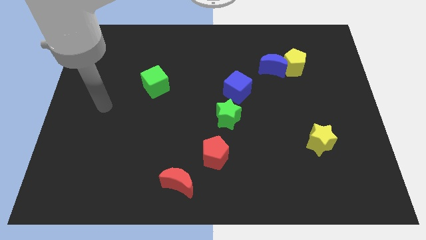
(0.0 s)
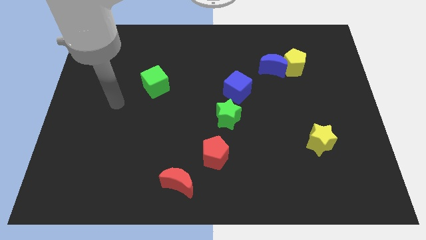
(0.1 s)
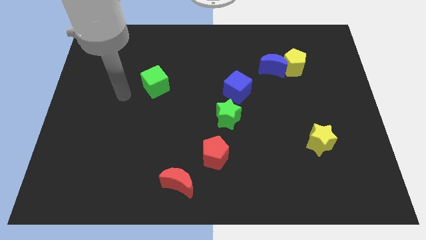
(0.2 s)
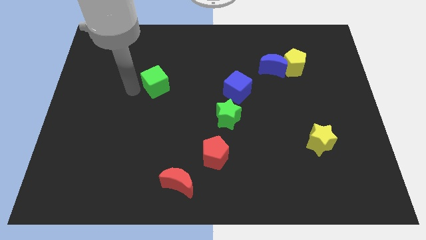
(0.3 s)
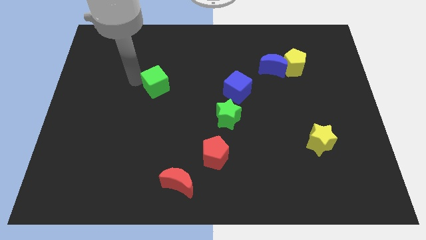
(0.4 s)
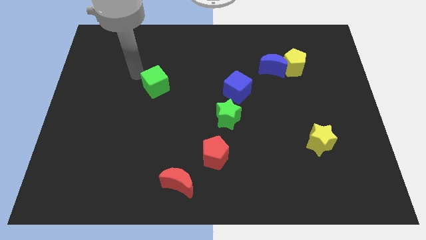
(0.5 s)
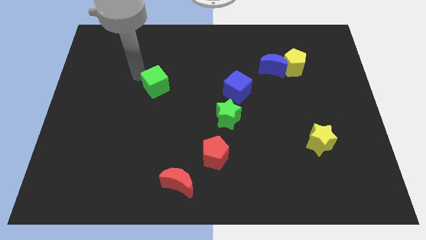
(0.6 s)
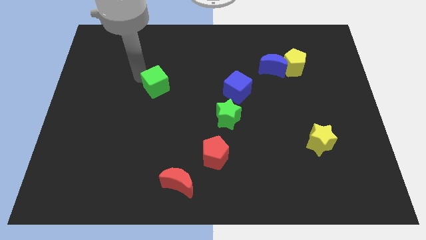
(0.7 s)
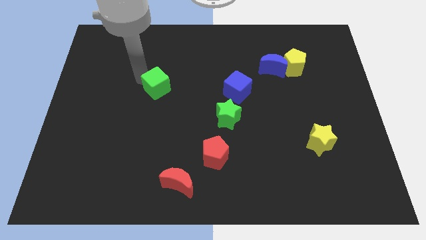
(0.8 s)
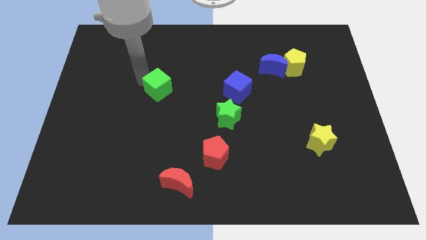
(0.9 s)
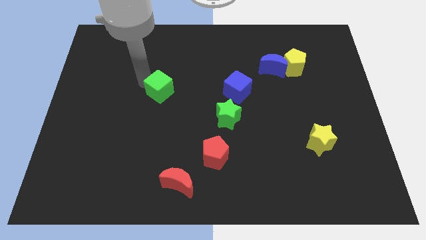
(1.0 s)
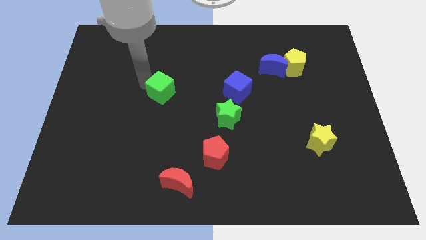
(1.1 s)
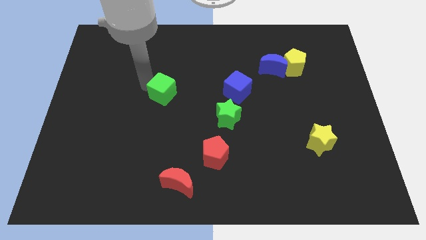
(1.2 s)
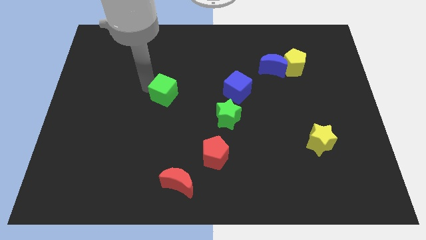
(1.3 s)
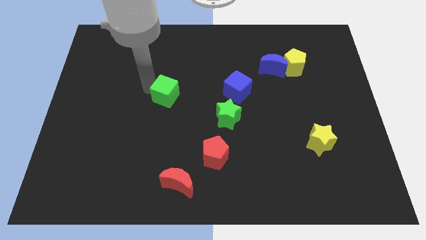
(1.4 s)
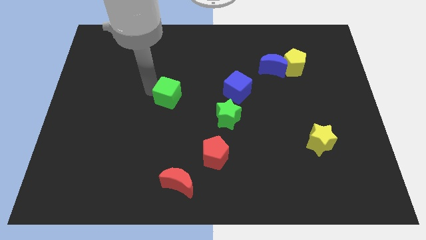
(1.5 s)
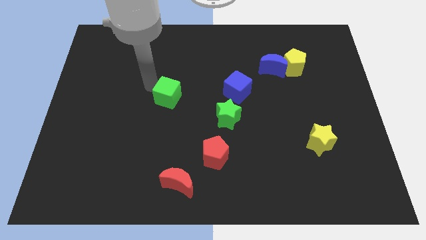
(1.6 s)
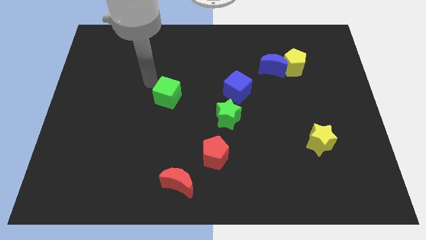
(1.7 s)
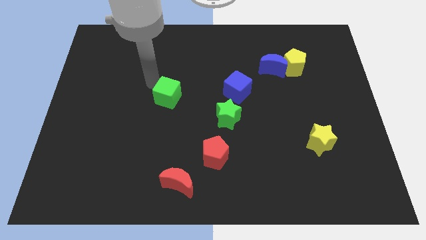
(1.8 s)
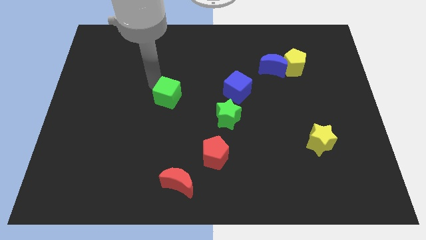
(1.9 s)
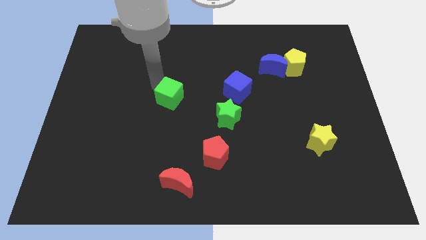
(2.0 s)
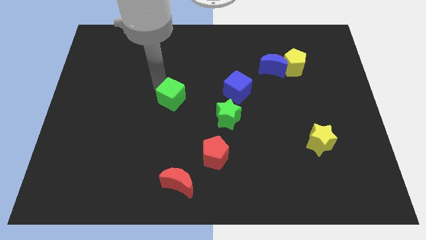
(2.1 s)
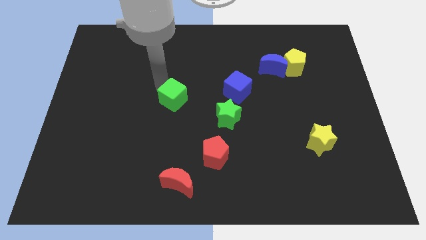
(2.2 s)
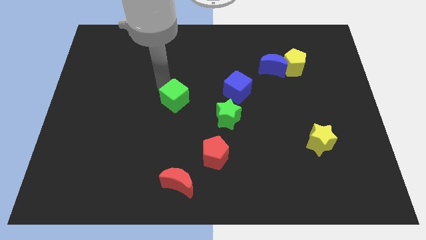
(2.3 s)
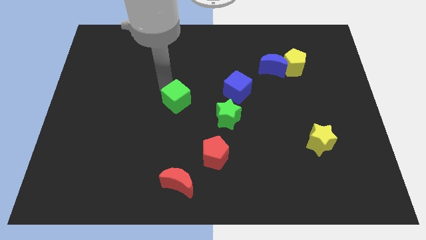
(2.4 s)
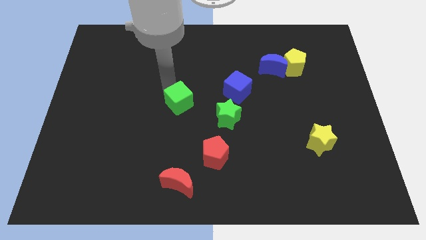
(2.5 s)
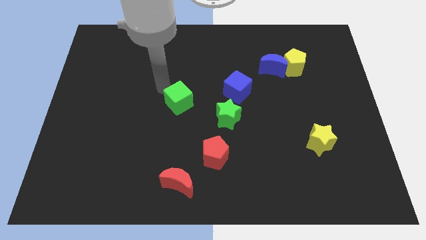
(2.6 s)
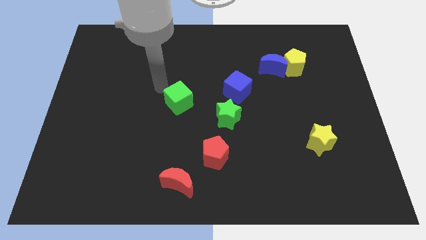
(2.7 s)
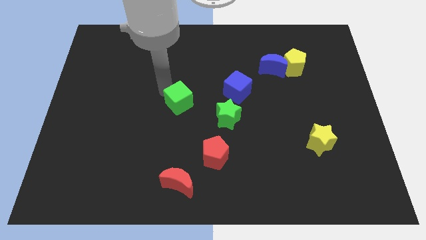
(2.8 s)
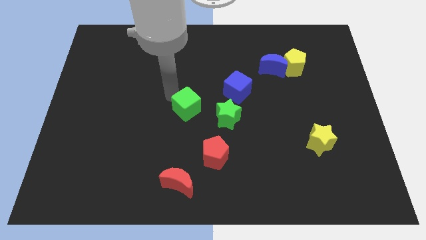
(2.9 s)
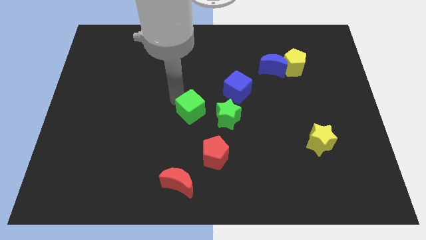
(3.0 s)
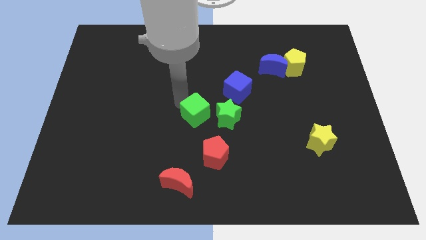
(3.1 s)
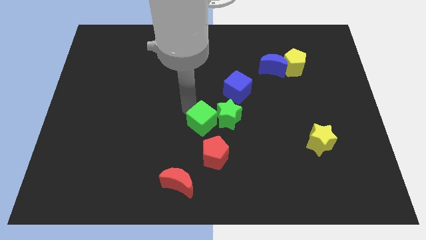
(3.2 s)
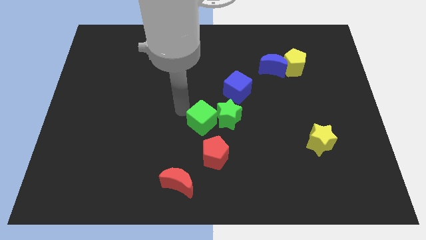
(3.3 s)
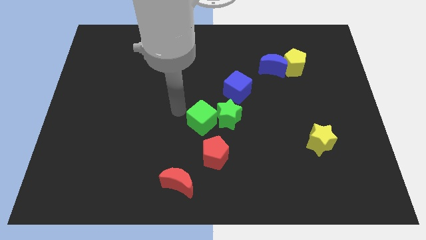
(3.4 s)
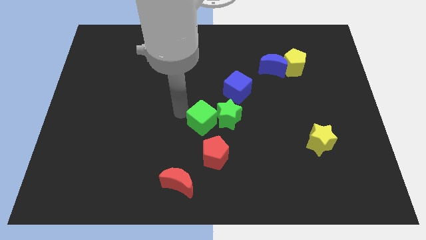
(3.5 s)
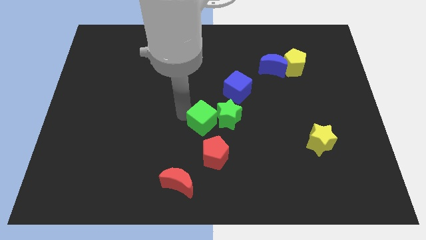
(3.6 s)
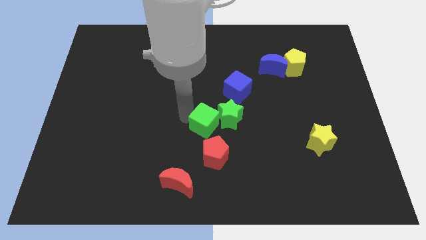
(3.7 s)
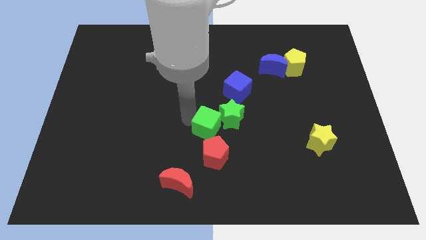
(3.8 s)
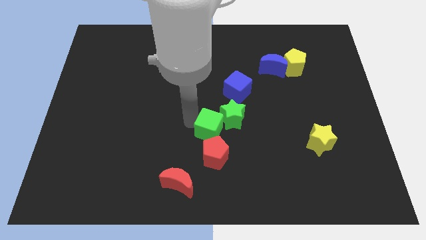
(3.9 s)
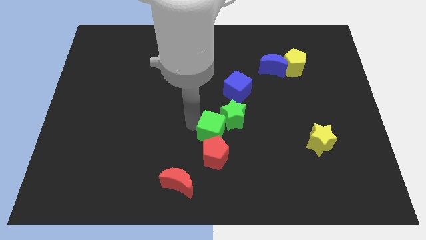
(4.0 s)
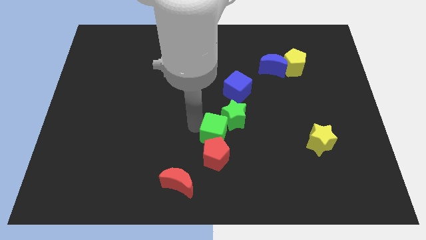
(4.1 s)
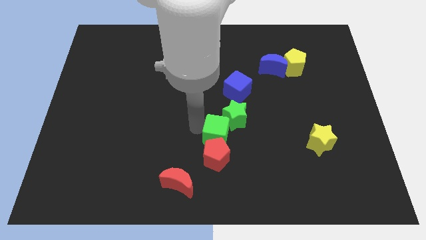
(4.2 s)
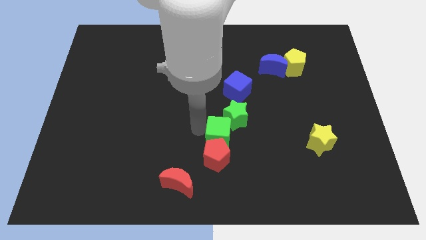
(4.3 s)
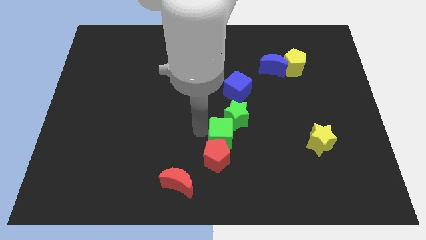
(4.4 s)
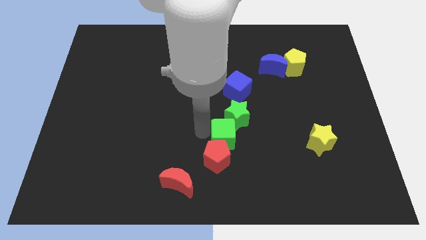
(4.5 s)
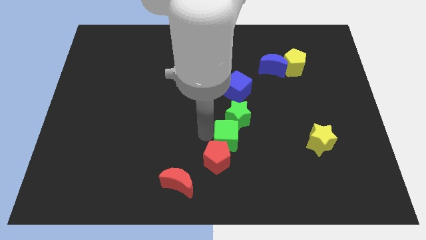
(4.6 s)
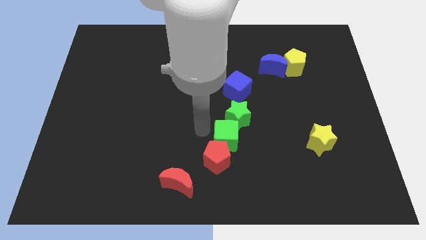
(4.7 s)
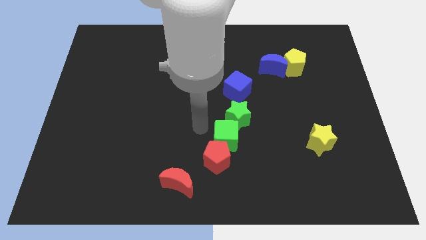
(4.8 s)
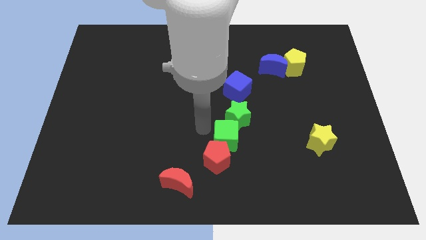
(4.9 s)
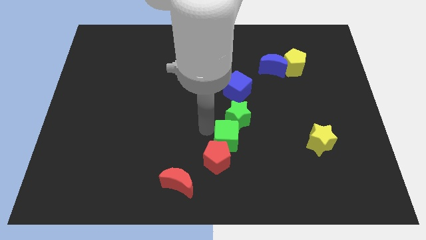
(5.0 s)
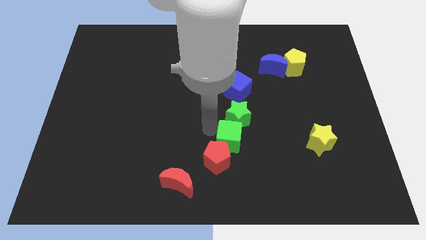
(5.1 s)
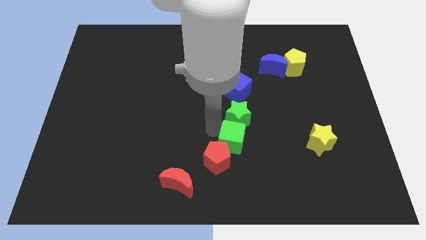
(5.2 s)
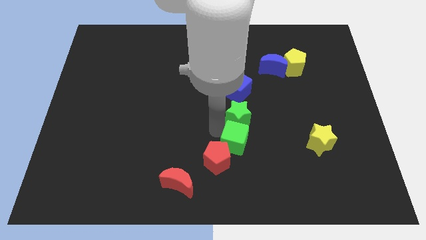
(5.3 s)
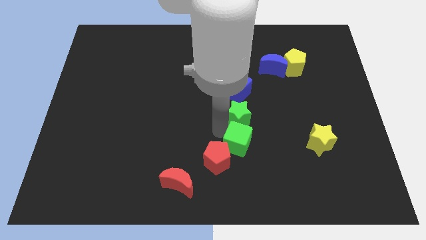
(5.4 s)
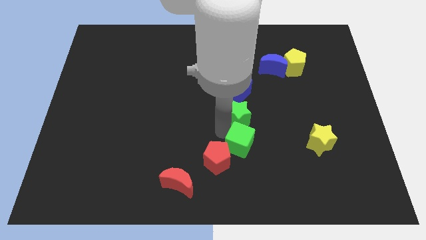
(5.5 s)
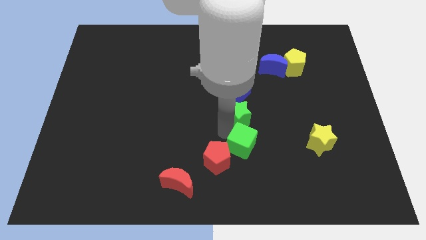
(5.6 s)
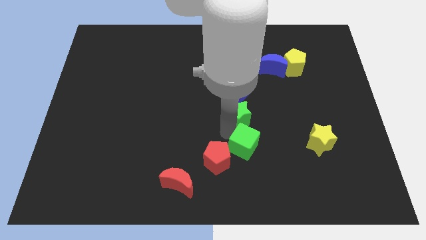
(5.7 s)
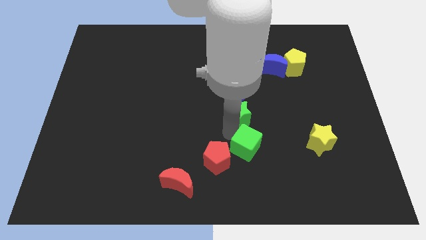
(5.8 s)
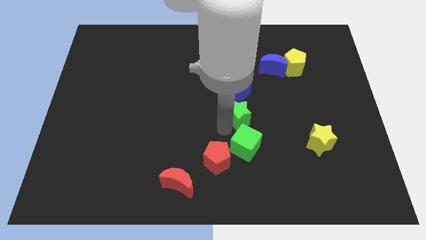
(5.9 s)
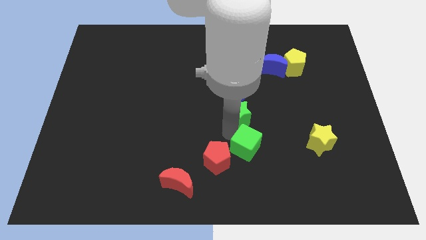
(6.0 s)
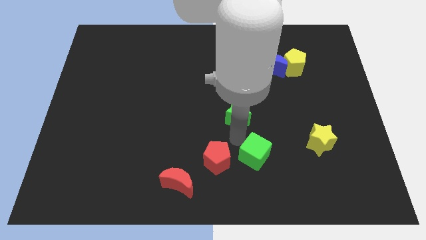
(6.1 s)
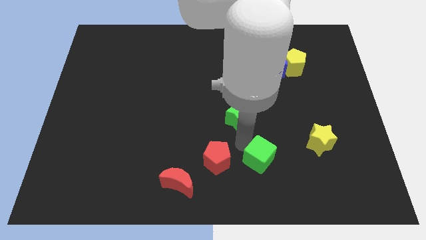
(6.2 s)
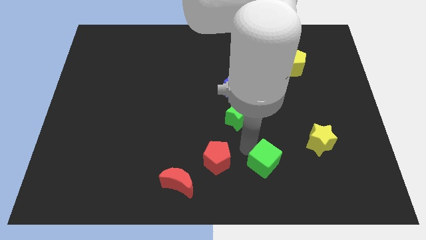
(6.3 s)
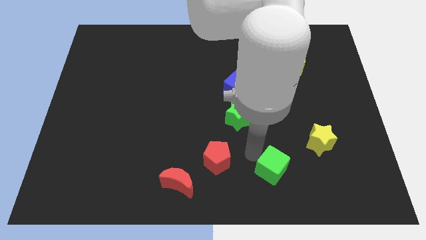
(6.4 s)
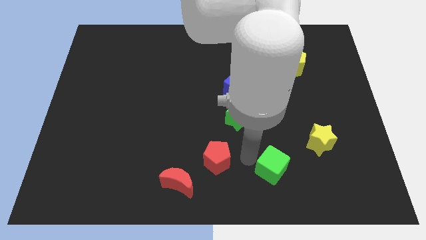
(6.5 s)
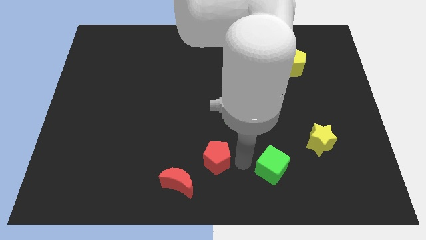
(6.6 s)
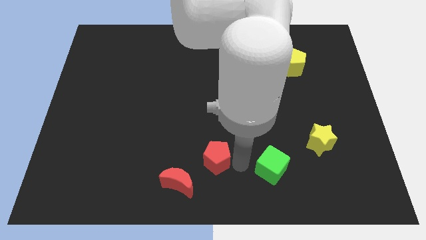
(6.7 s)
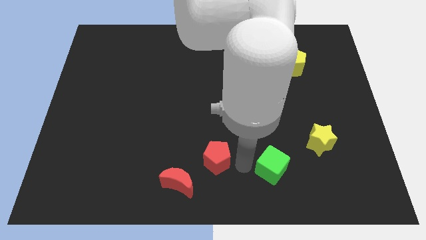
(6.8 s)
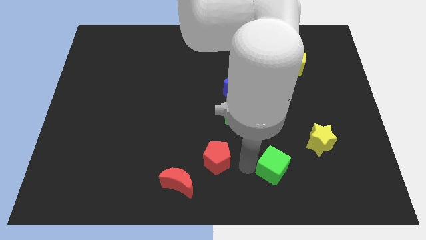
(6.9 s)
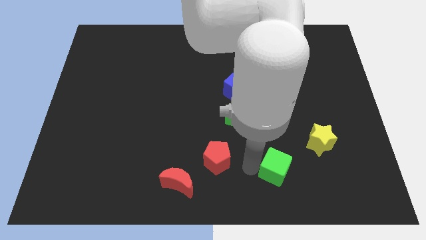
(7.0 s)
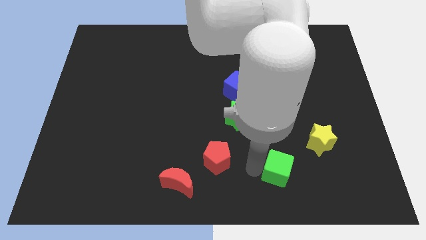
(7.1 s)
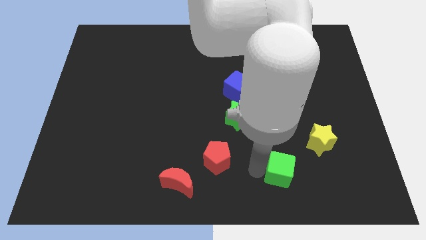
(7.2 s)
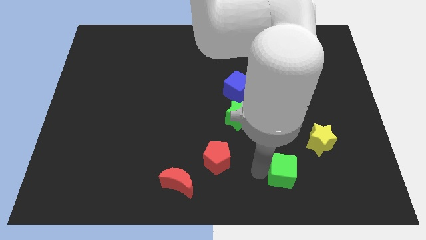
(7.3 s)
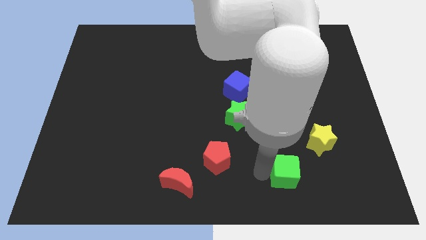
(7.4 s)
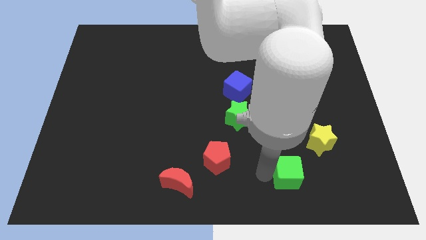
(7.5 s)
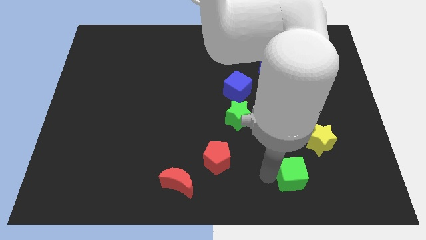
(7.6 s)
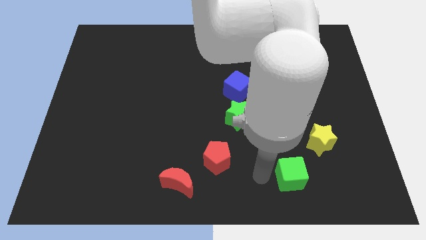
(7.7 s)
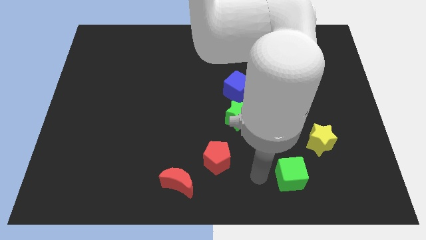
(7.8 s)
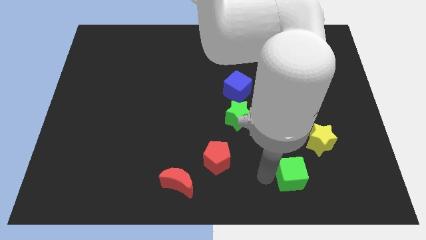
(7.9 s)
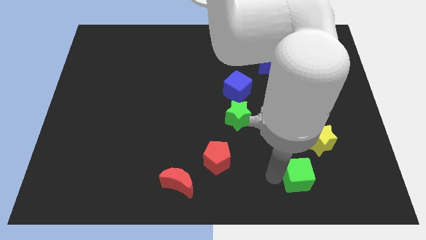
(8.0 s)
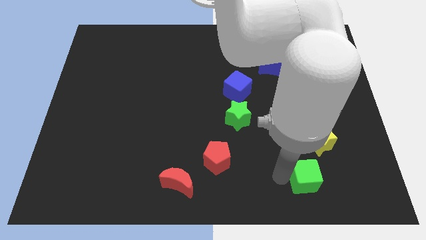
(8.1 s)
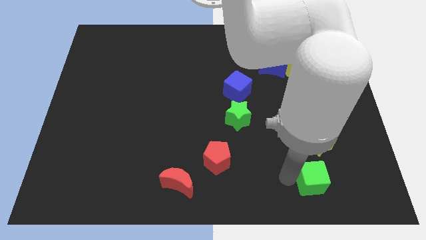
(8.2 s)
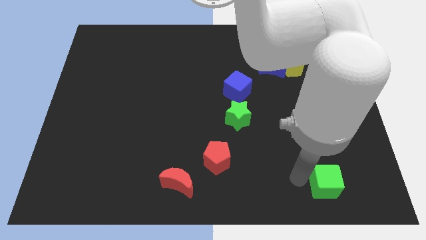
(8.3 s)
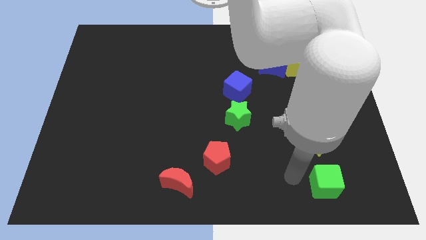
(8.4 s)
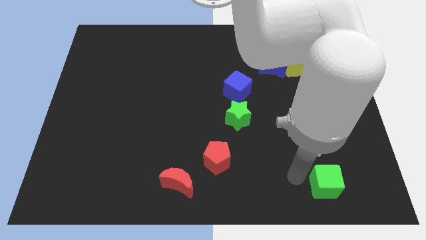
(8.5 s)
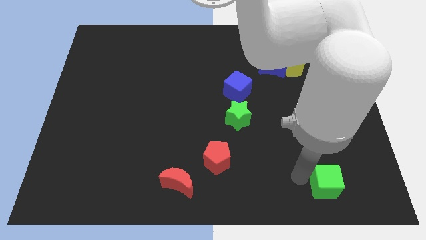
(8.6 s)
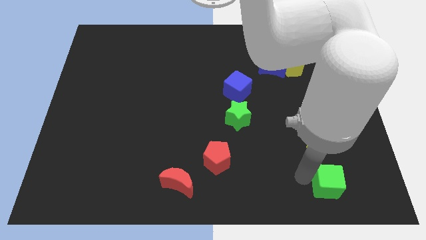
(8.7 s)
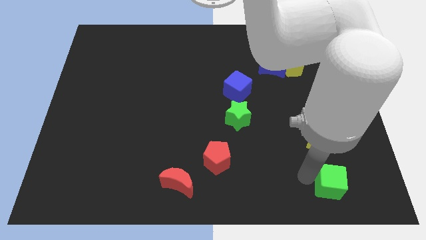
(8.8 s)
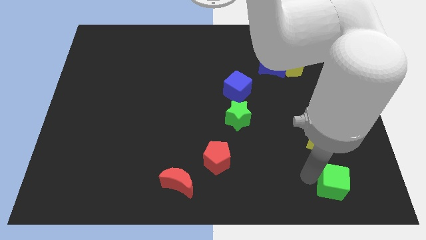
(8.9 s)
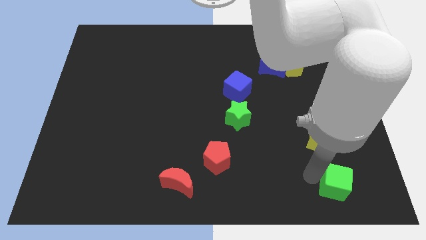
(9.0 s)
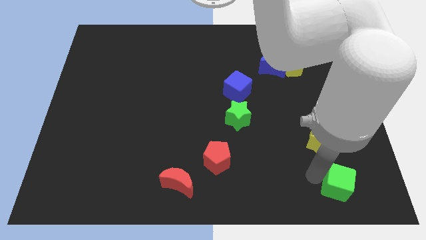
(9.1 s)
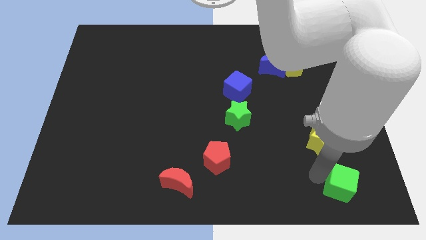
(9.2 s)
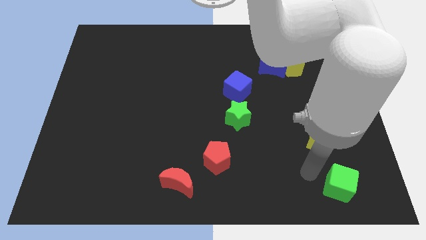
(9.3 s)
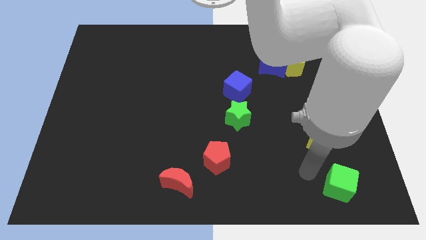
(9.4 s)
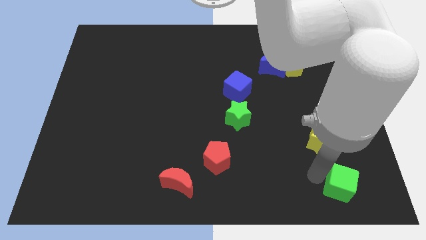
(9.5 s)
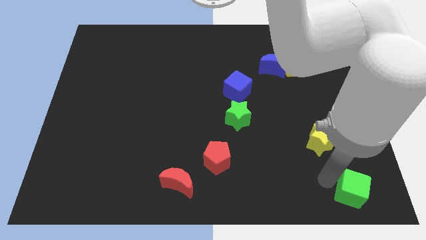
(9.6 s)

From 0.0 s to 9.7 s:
put the green cube to the lower right corner
